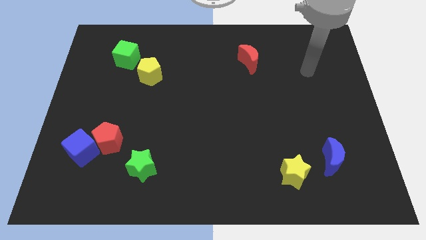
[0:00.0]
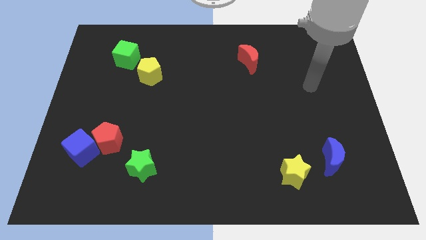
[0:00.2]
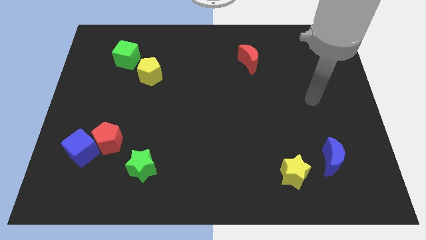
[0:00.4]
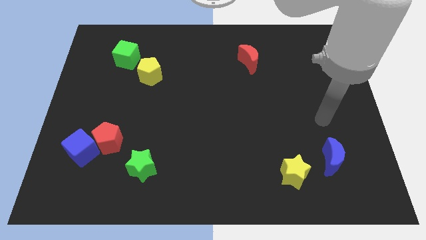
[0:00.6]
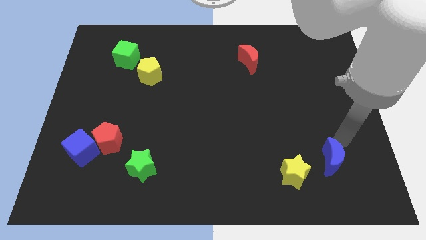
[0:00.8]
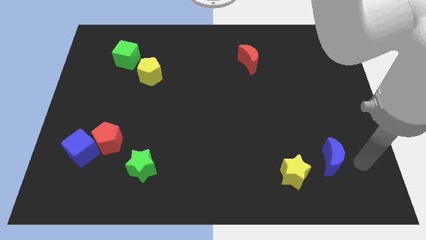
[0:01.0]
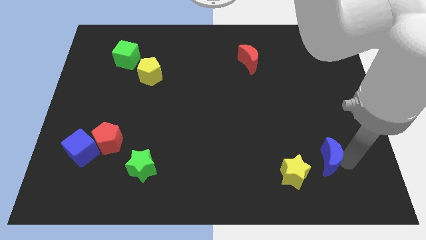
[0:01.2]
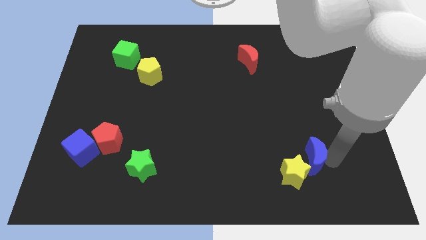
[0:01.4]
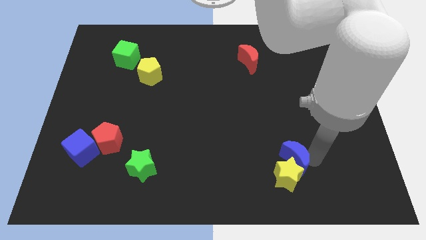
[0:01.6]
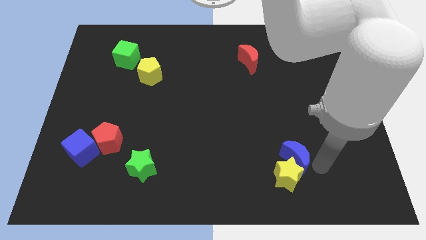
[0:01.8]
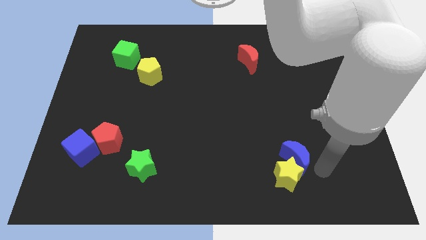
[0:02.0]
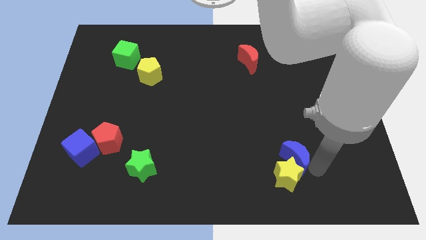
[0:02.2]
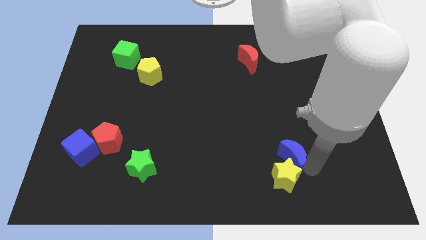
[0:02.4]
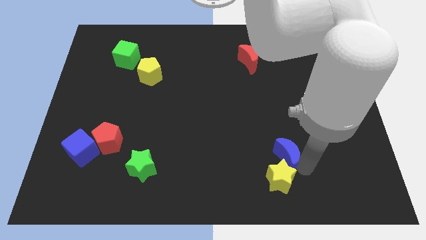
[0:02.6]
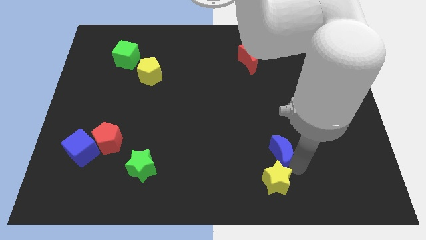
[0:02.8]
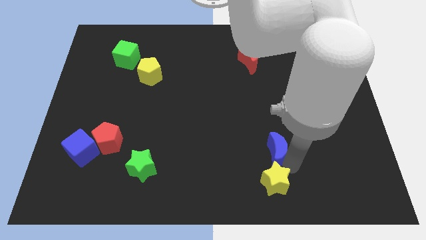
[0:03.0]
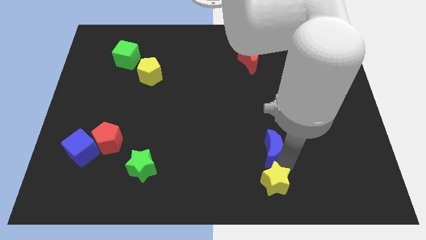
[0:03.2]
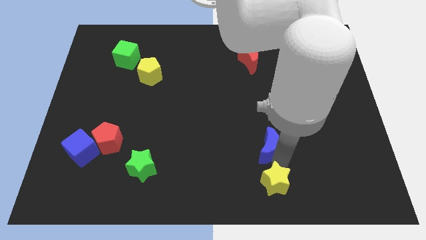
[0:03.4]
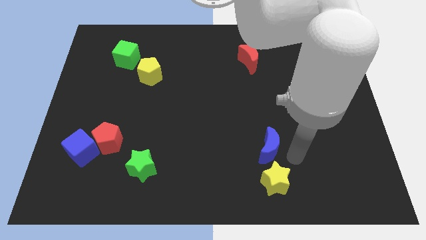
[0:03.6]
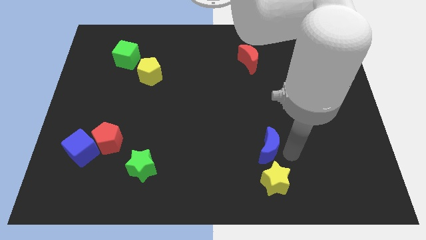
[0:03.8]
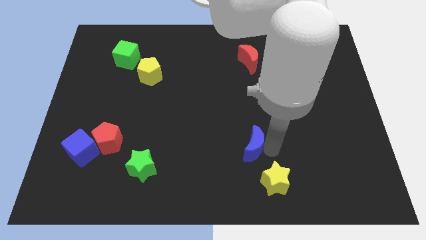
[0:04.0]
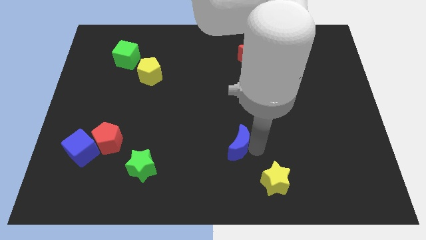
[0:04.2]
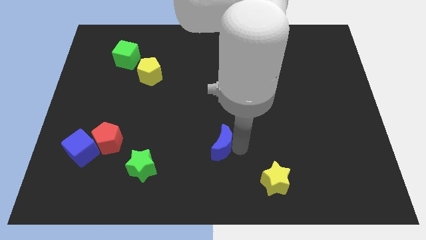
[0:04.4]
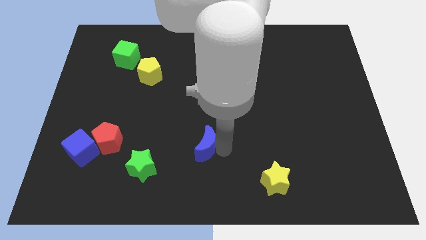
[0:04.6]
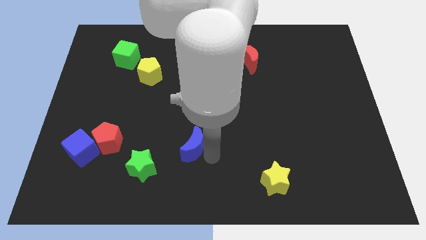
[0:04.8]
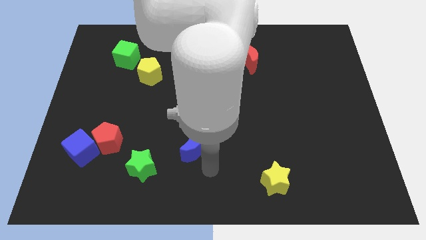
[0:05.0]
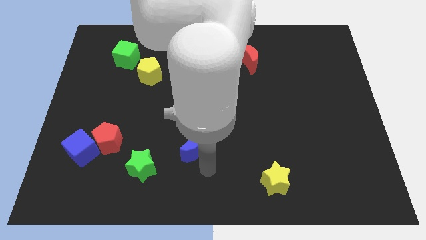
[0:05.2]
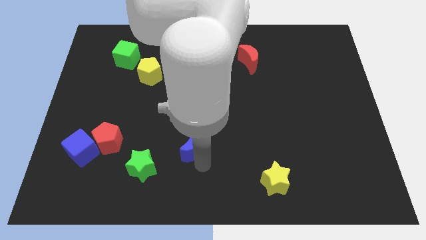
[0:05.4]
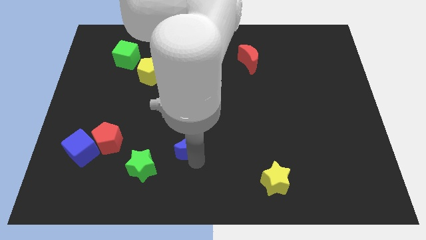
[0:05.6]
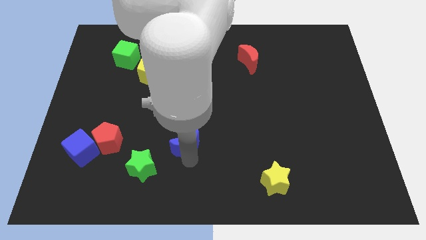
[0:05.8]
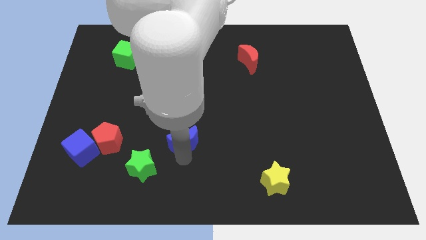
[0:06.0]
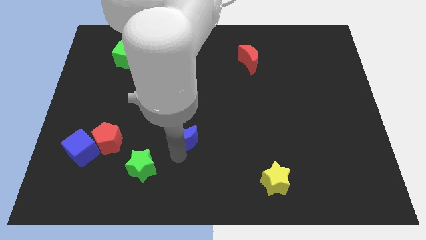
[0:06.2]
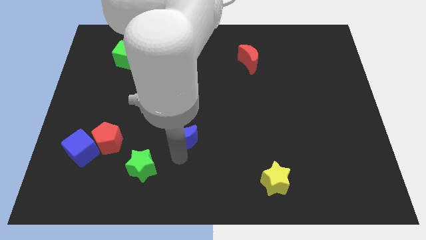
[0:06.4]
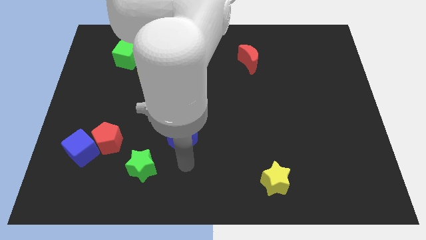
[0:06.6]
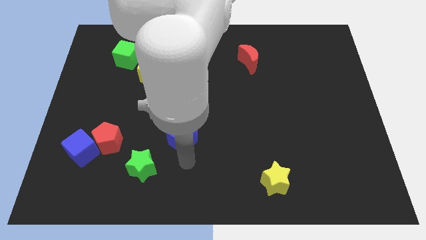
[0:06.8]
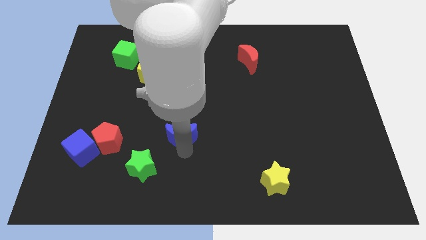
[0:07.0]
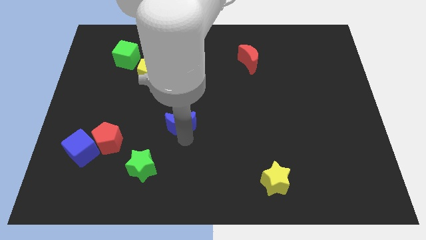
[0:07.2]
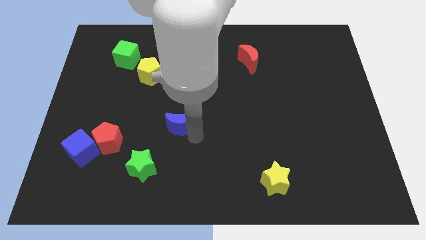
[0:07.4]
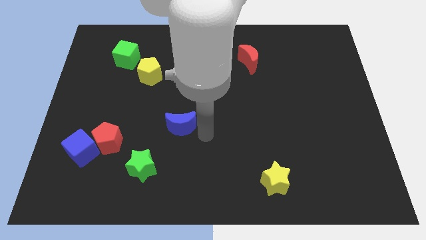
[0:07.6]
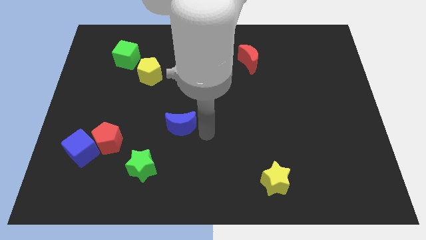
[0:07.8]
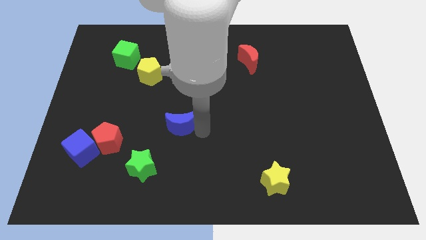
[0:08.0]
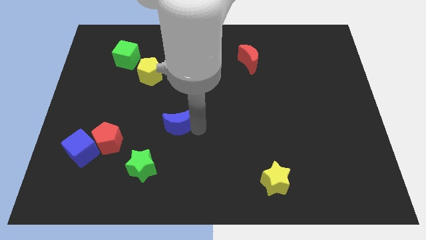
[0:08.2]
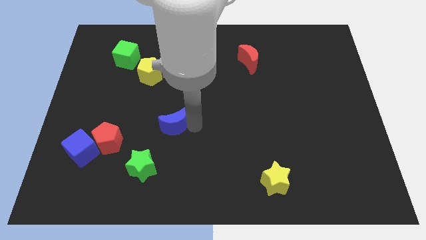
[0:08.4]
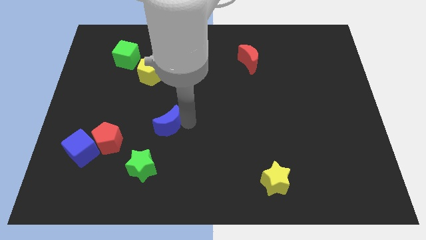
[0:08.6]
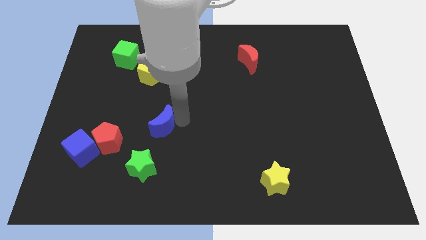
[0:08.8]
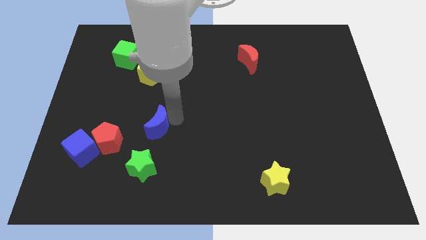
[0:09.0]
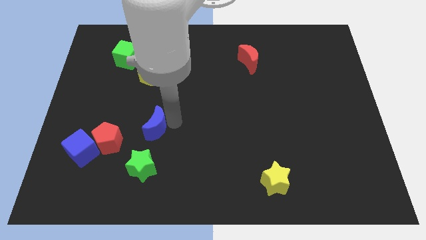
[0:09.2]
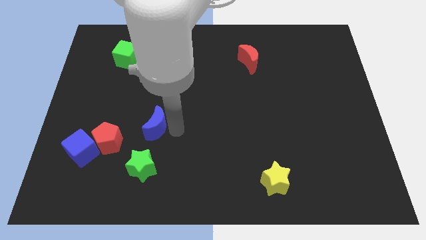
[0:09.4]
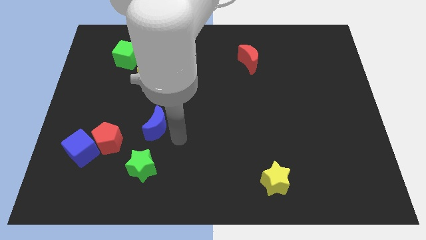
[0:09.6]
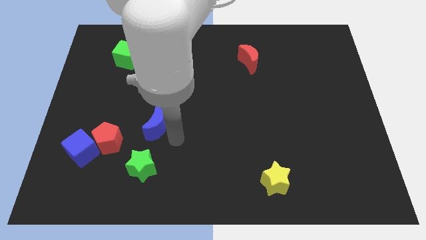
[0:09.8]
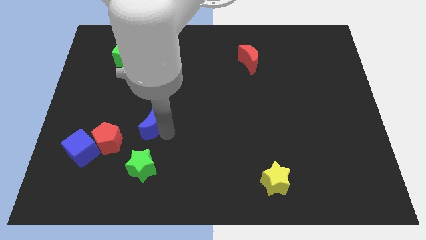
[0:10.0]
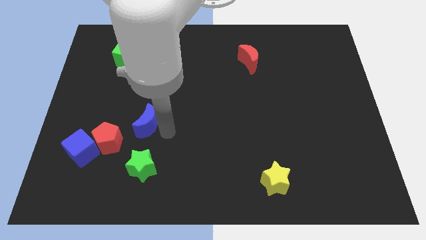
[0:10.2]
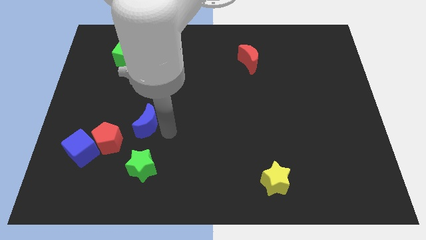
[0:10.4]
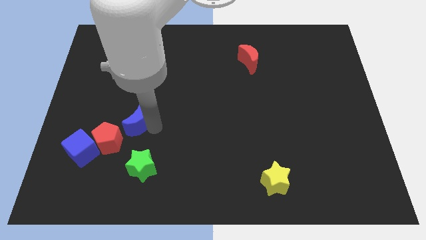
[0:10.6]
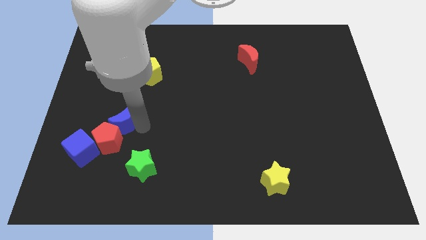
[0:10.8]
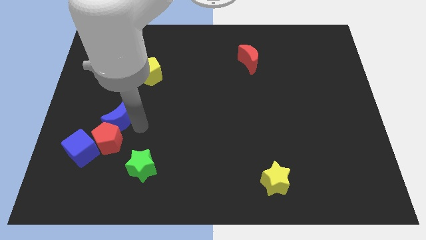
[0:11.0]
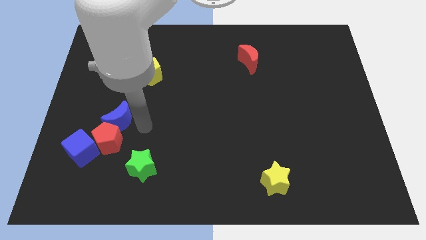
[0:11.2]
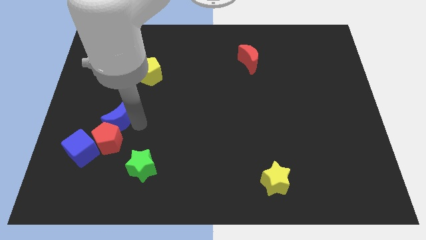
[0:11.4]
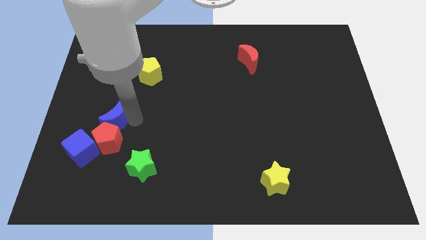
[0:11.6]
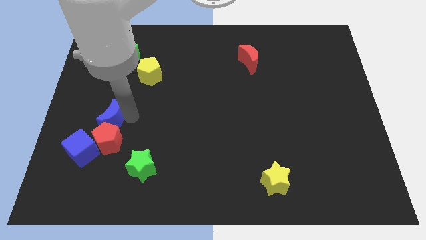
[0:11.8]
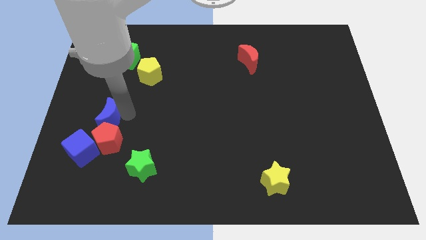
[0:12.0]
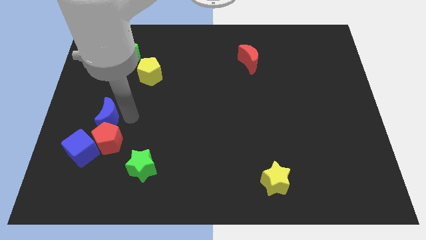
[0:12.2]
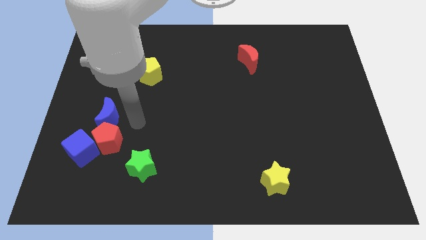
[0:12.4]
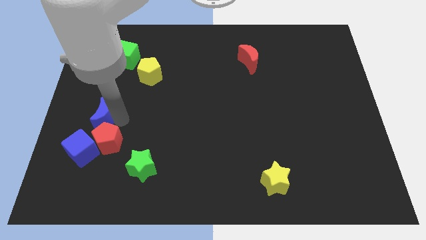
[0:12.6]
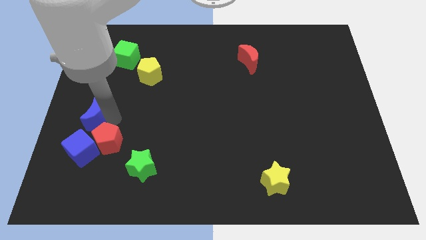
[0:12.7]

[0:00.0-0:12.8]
move the blue moon to the left side

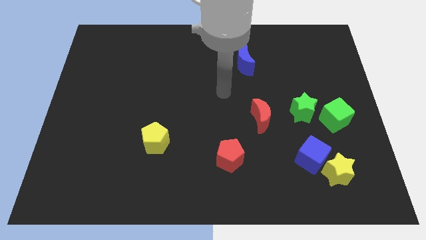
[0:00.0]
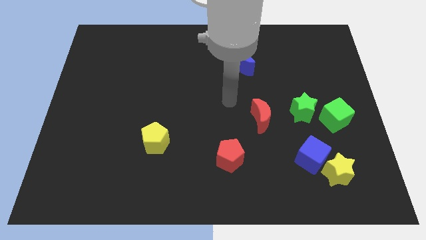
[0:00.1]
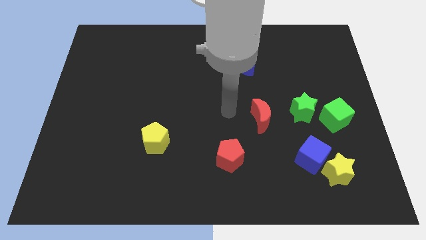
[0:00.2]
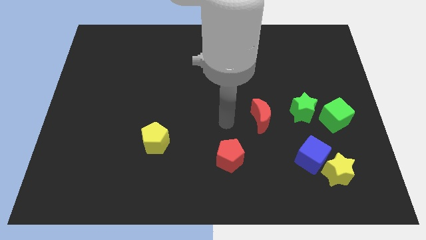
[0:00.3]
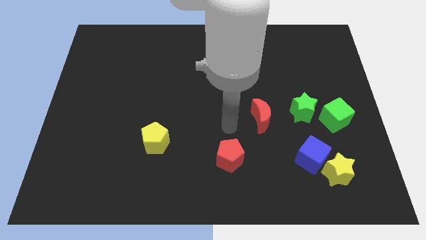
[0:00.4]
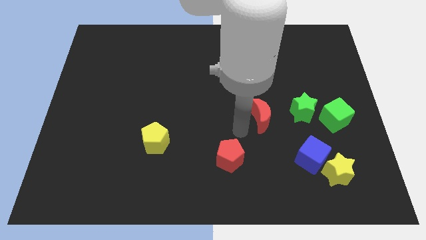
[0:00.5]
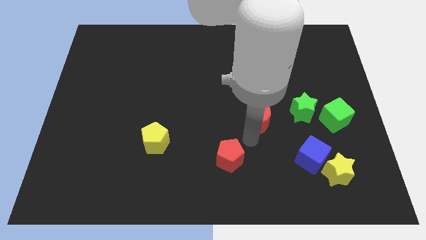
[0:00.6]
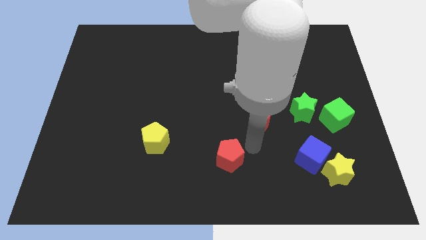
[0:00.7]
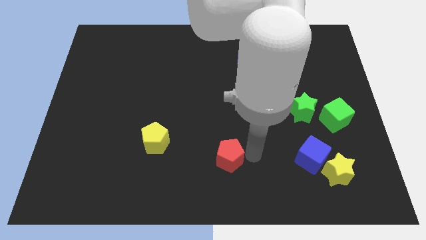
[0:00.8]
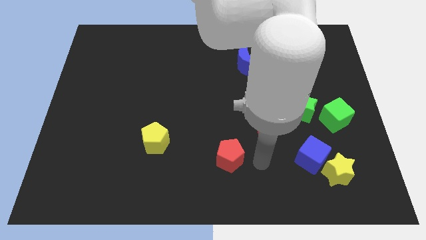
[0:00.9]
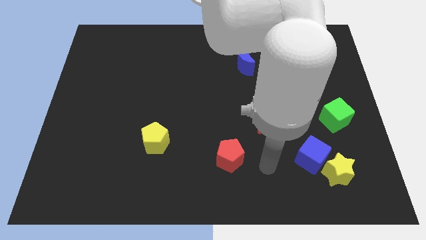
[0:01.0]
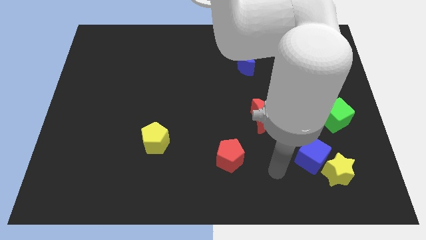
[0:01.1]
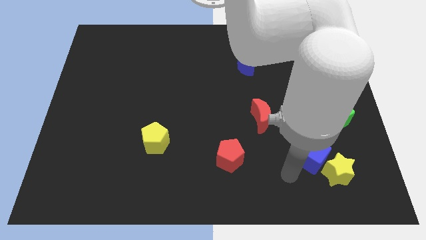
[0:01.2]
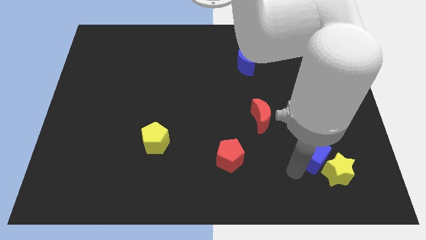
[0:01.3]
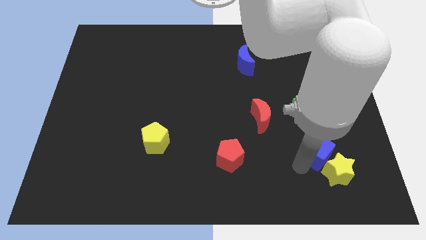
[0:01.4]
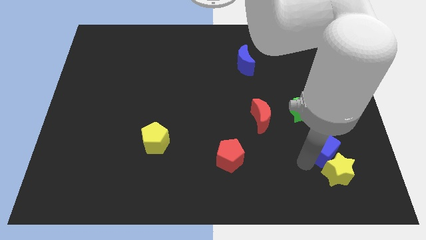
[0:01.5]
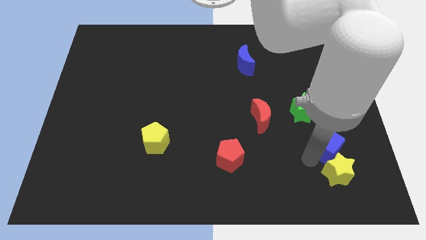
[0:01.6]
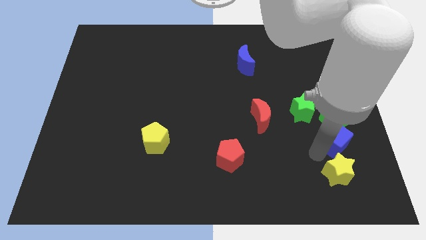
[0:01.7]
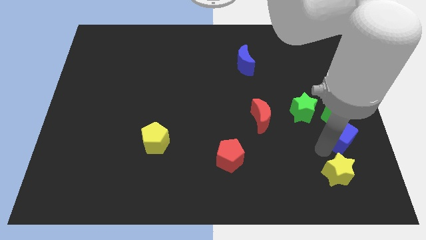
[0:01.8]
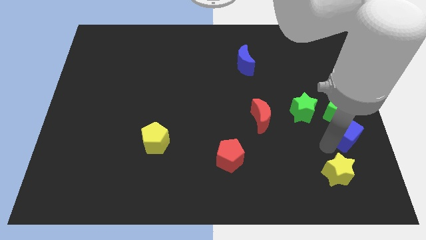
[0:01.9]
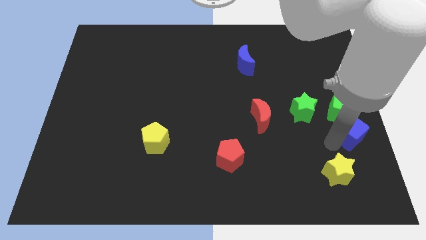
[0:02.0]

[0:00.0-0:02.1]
push the blue cube to the right side
